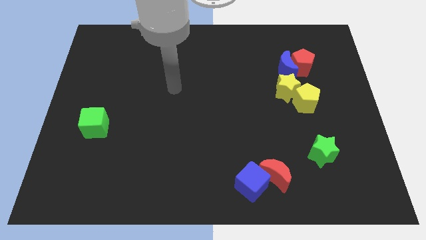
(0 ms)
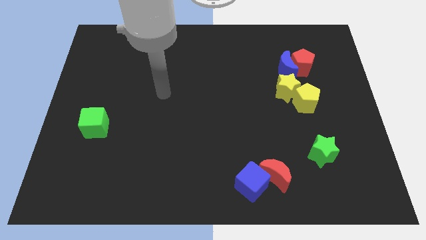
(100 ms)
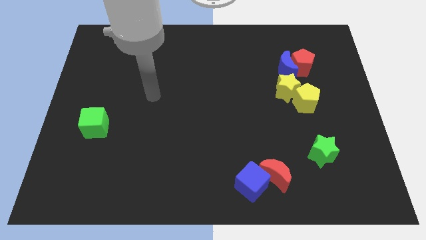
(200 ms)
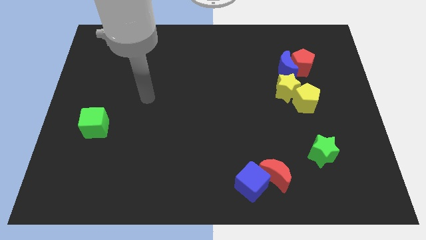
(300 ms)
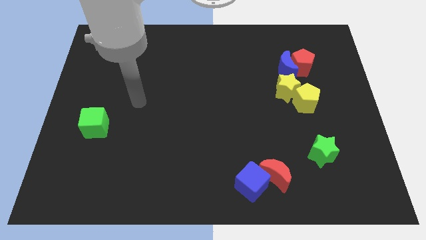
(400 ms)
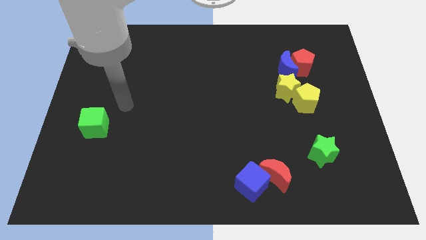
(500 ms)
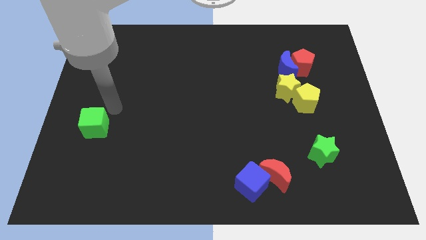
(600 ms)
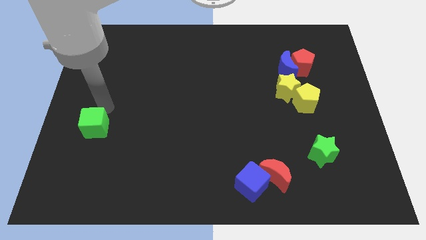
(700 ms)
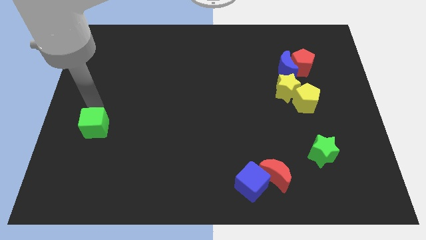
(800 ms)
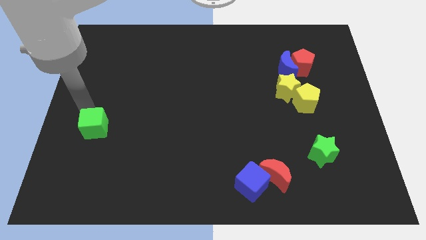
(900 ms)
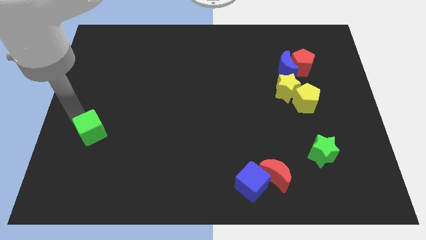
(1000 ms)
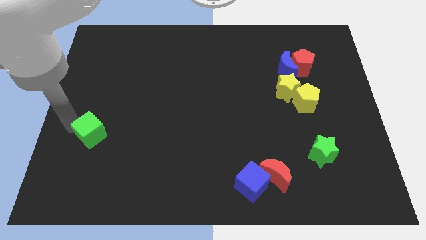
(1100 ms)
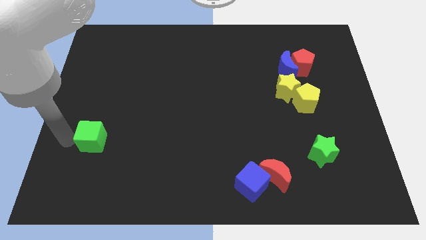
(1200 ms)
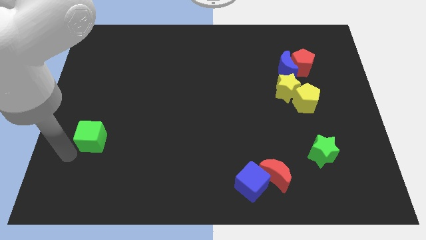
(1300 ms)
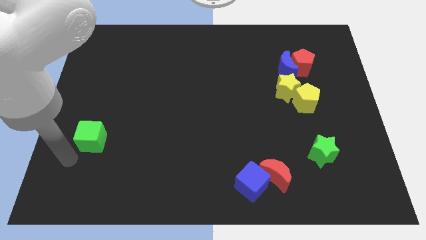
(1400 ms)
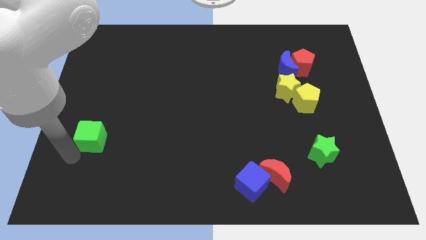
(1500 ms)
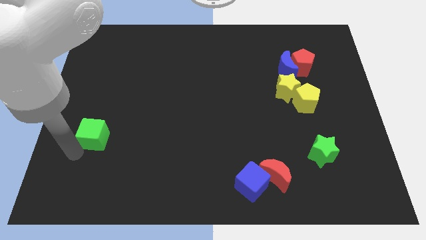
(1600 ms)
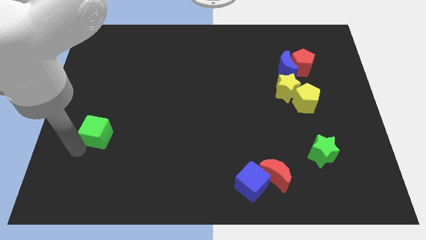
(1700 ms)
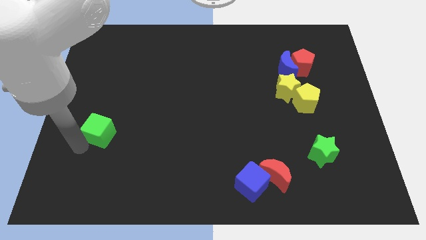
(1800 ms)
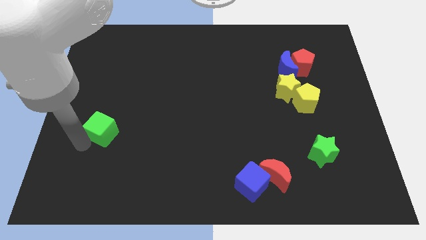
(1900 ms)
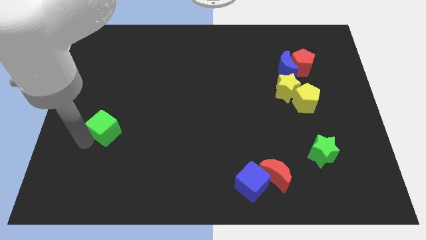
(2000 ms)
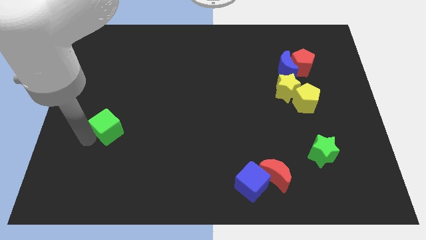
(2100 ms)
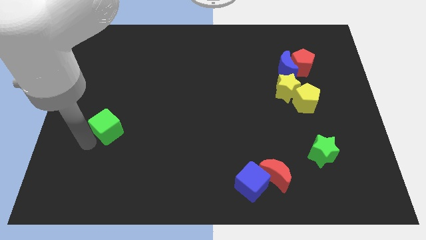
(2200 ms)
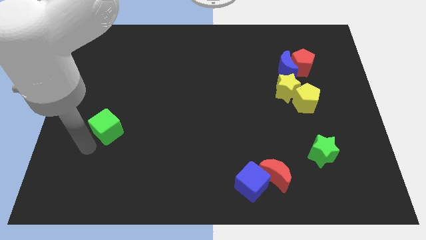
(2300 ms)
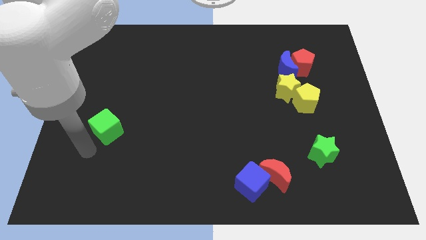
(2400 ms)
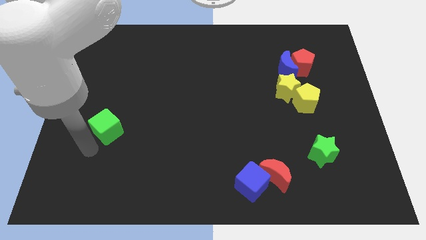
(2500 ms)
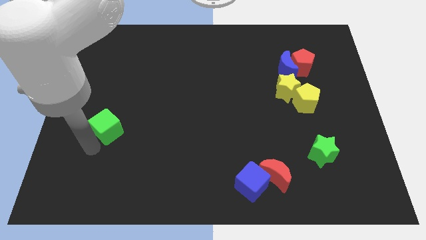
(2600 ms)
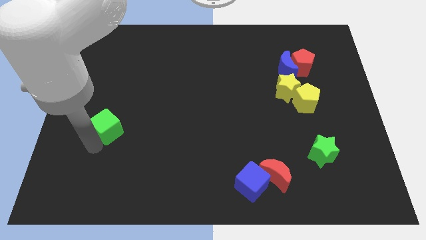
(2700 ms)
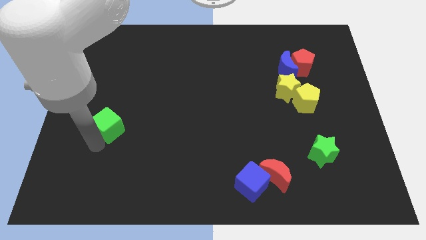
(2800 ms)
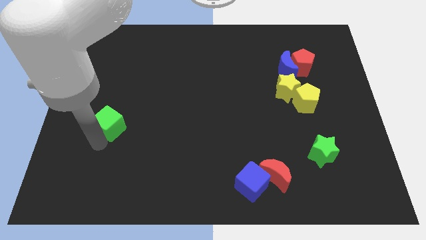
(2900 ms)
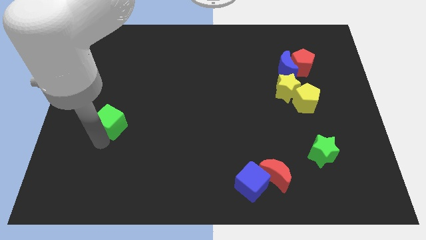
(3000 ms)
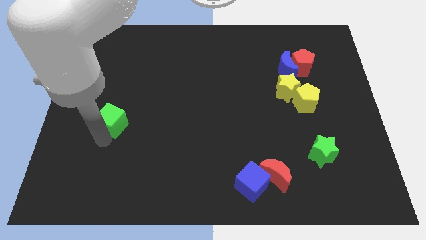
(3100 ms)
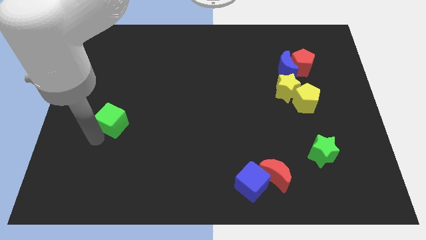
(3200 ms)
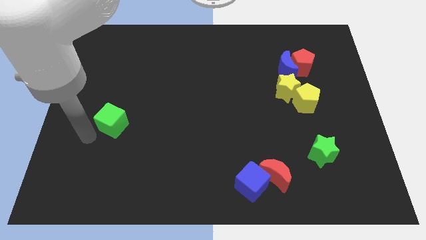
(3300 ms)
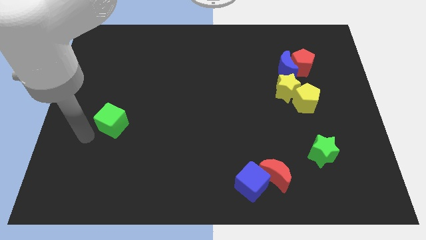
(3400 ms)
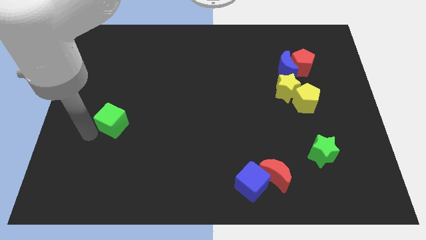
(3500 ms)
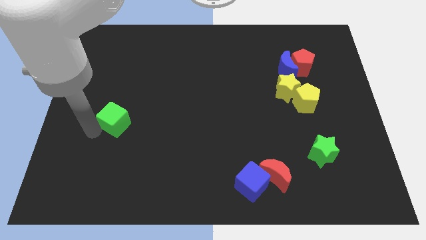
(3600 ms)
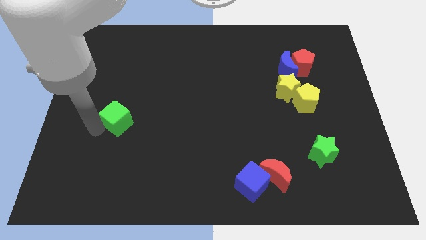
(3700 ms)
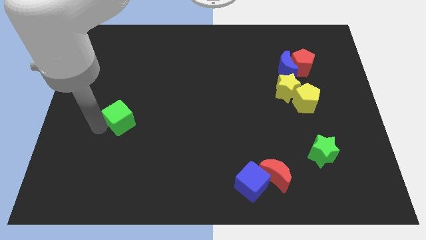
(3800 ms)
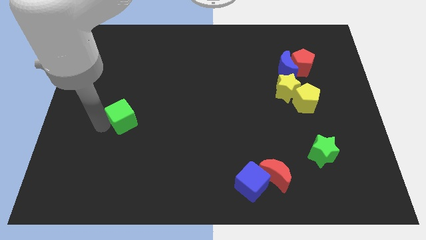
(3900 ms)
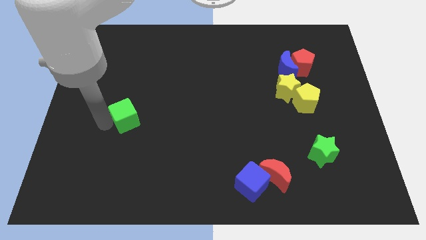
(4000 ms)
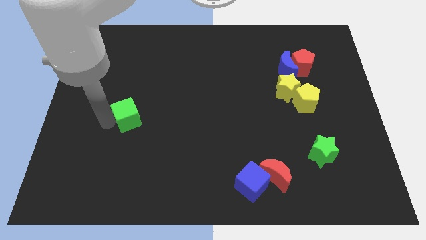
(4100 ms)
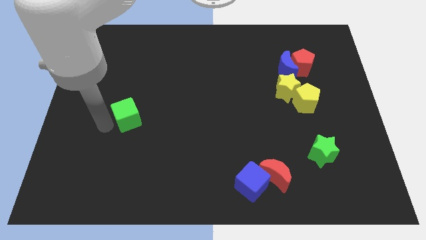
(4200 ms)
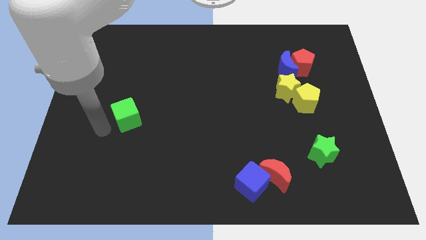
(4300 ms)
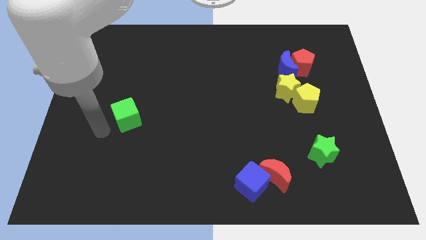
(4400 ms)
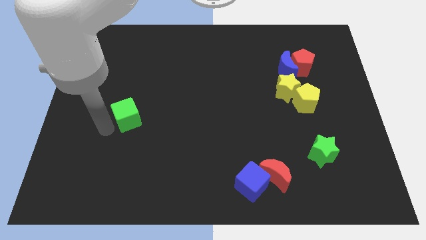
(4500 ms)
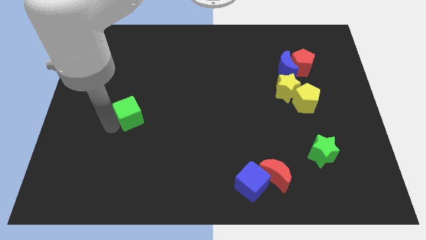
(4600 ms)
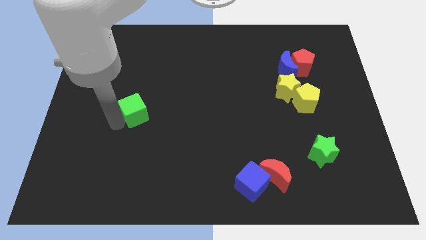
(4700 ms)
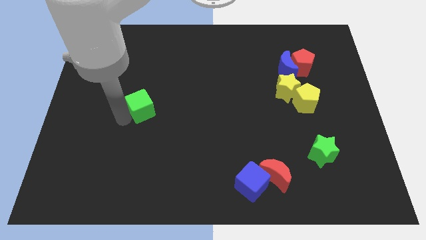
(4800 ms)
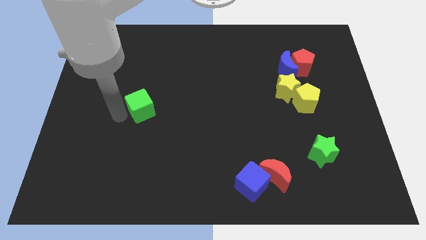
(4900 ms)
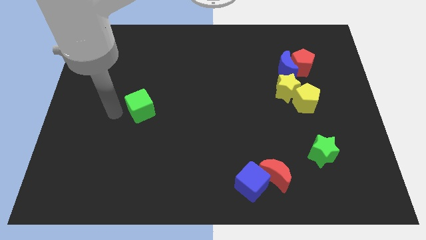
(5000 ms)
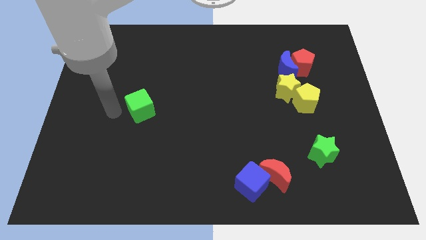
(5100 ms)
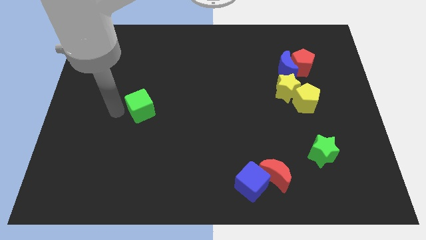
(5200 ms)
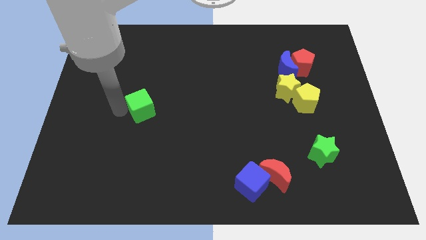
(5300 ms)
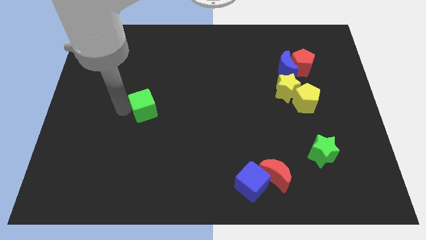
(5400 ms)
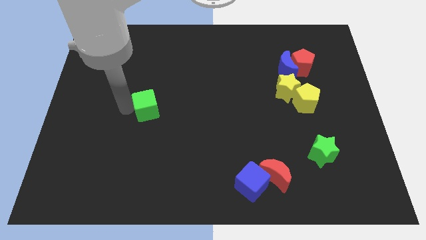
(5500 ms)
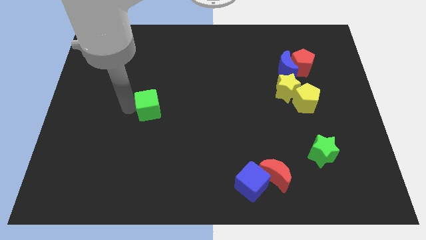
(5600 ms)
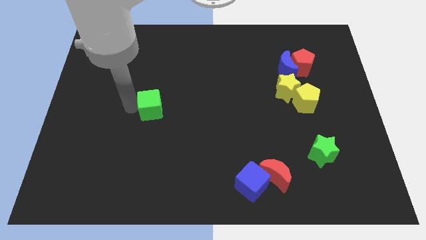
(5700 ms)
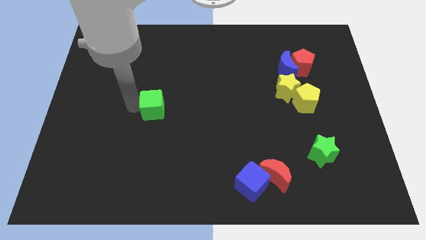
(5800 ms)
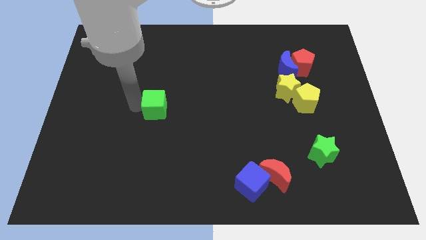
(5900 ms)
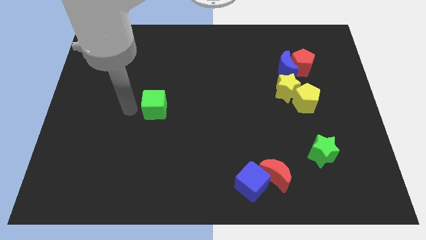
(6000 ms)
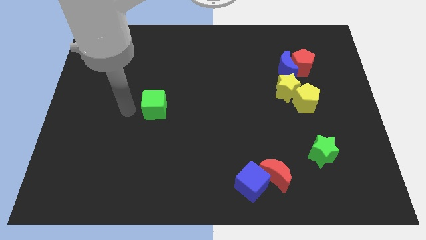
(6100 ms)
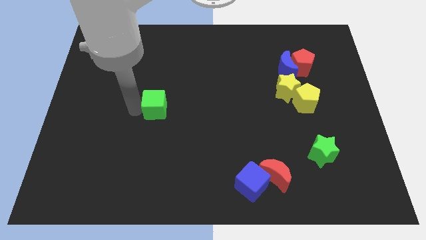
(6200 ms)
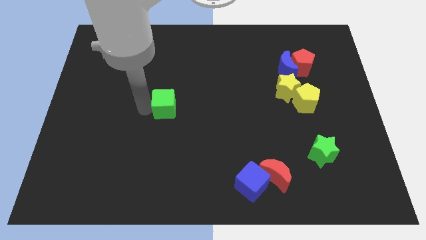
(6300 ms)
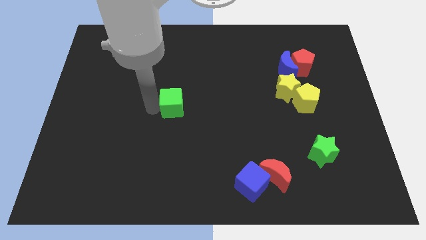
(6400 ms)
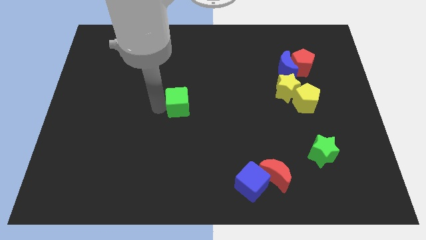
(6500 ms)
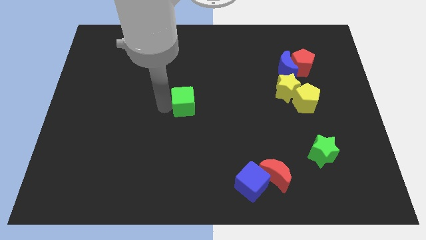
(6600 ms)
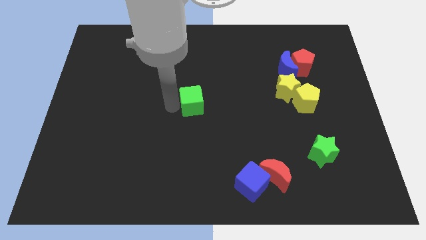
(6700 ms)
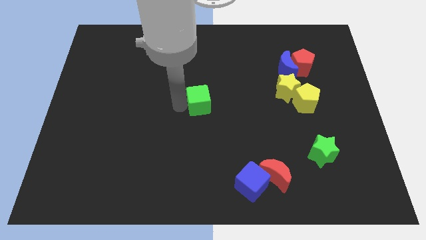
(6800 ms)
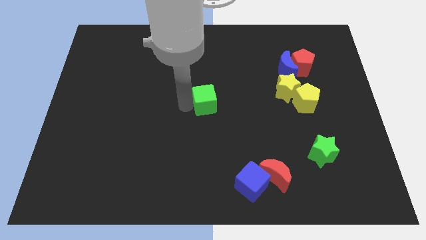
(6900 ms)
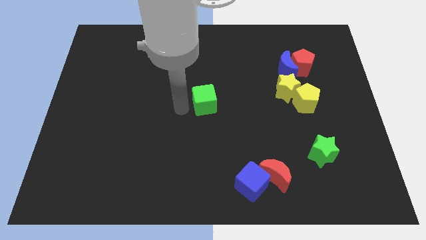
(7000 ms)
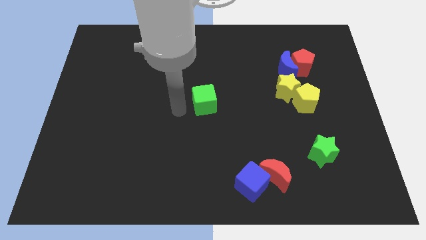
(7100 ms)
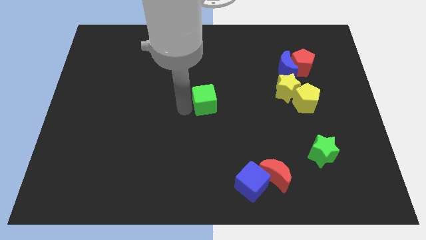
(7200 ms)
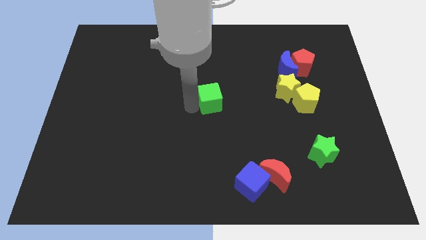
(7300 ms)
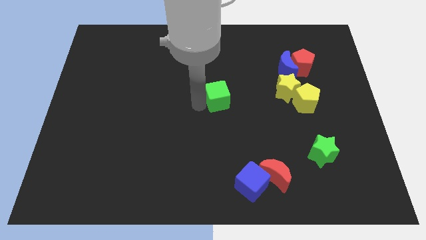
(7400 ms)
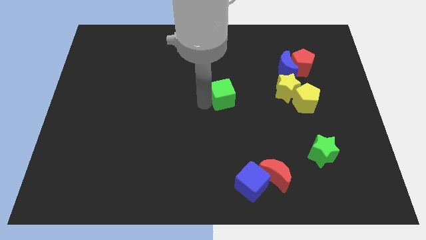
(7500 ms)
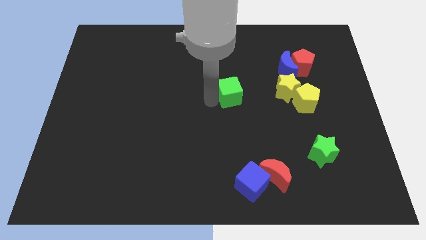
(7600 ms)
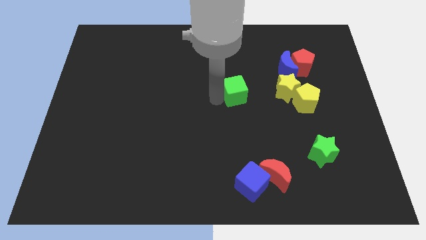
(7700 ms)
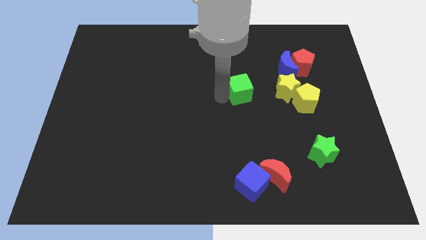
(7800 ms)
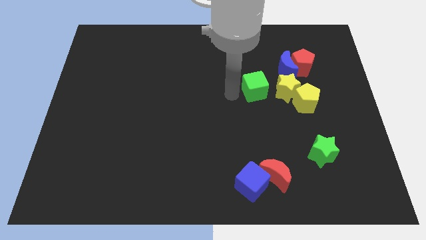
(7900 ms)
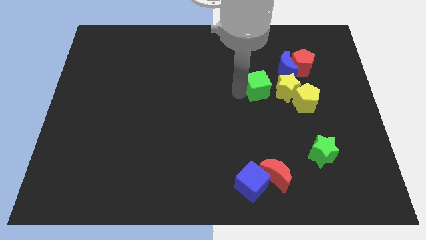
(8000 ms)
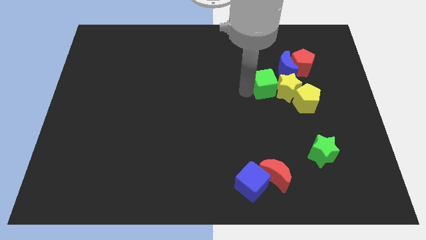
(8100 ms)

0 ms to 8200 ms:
push the green cube to the top left side of the yellow pentagon
